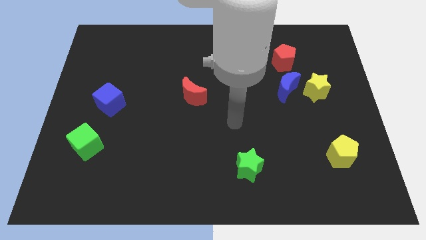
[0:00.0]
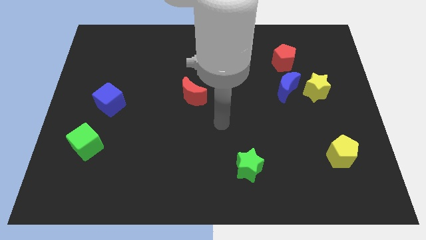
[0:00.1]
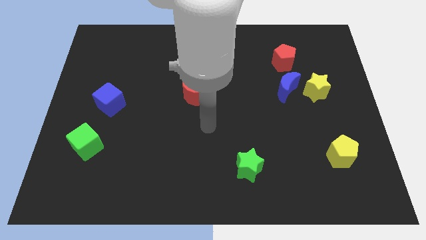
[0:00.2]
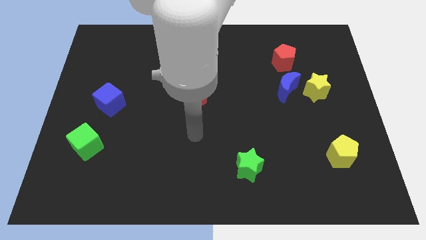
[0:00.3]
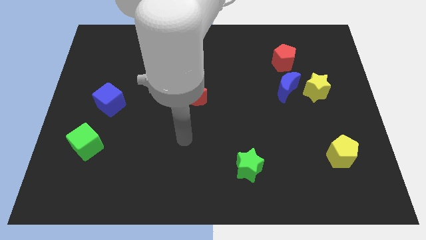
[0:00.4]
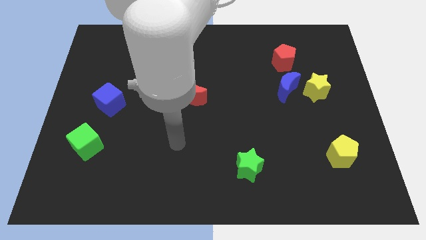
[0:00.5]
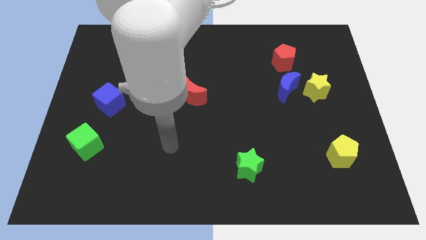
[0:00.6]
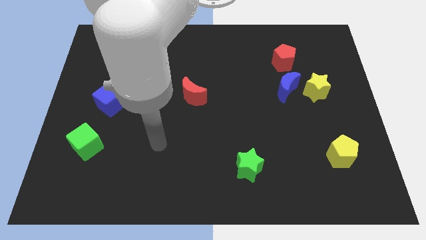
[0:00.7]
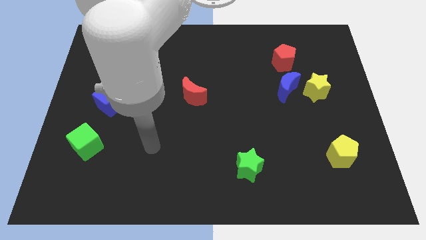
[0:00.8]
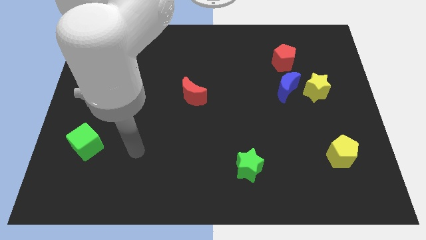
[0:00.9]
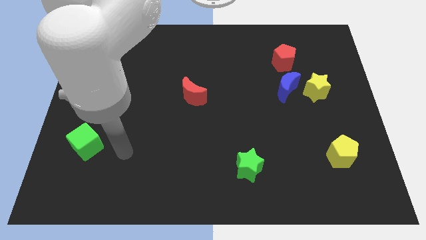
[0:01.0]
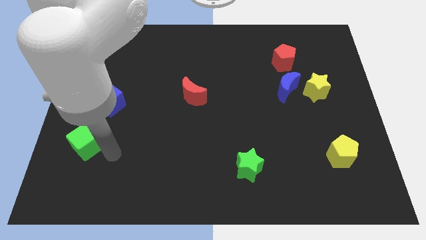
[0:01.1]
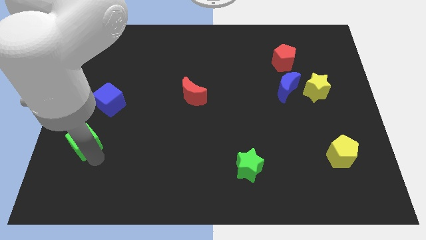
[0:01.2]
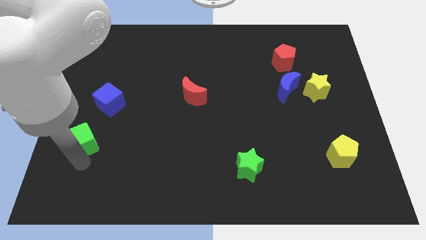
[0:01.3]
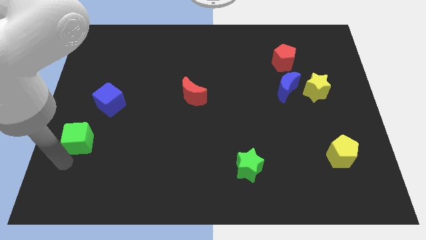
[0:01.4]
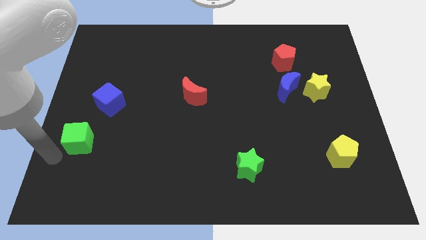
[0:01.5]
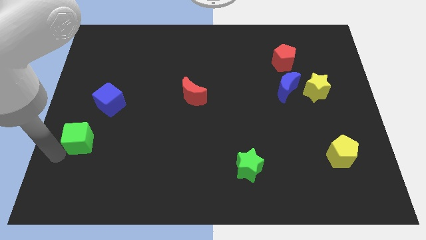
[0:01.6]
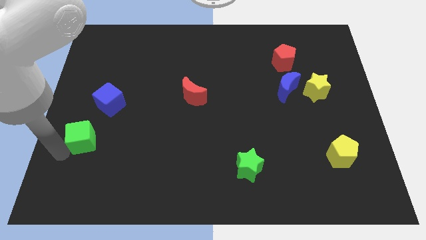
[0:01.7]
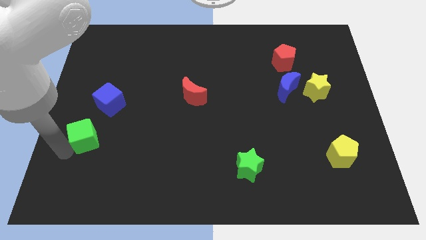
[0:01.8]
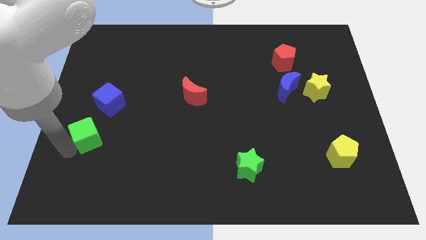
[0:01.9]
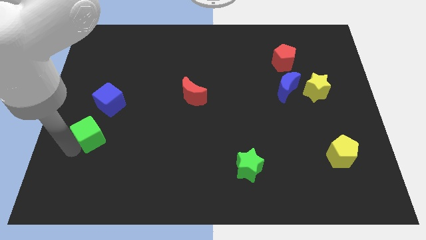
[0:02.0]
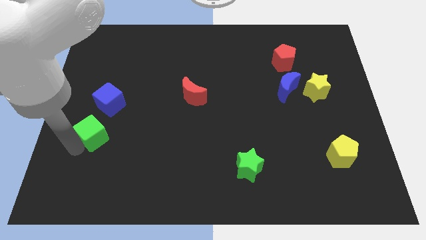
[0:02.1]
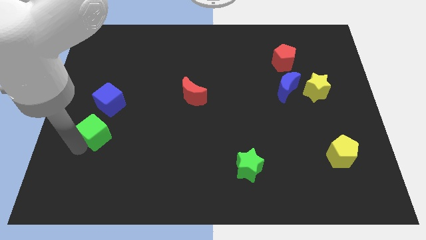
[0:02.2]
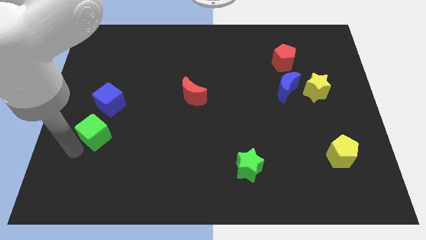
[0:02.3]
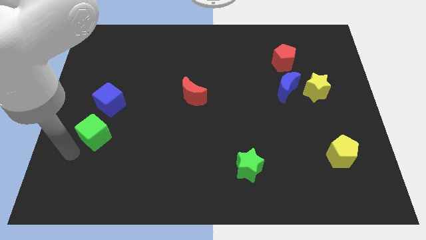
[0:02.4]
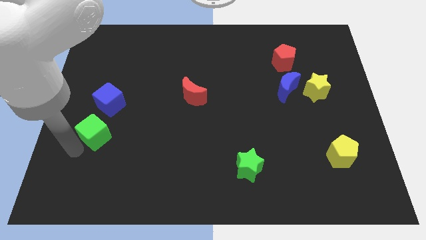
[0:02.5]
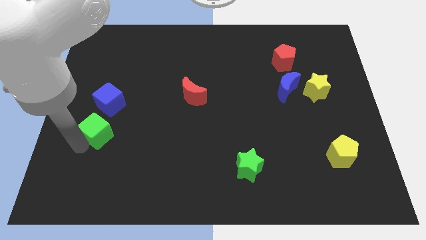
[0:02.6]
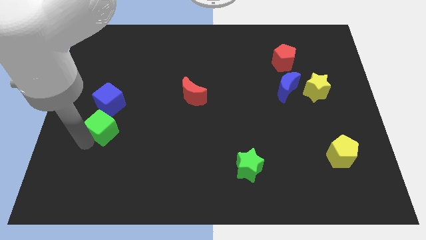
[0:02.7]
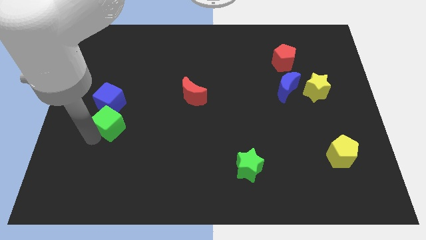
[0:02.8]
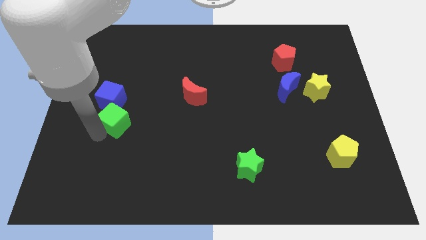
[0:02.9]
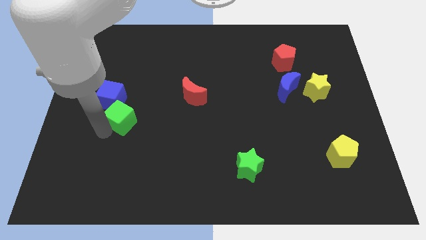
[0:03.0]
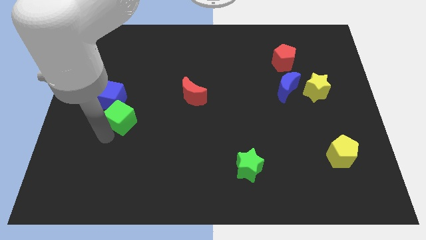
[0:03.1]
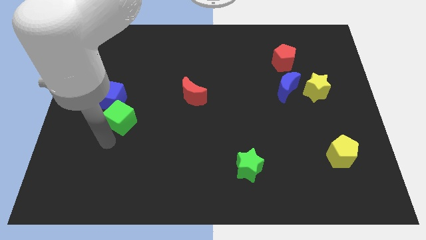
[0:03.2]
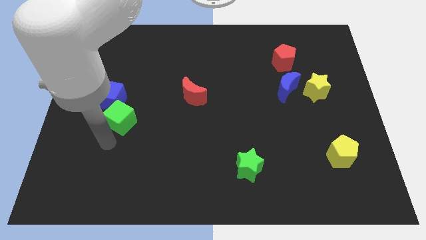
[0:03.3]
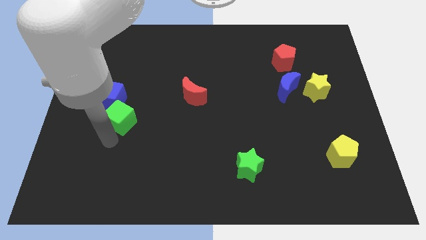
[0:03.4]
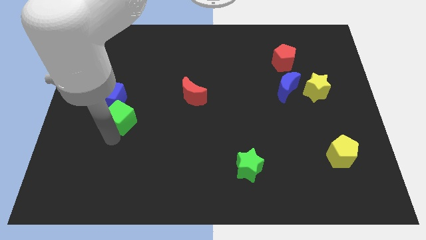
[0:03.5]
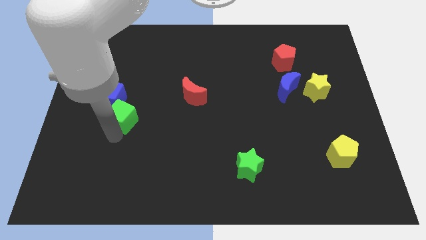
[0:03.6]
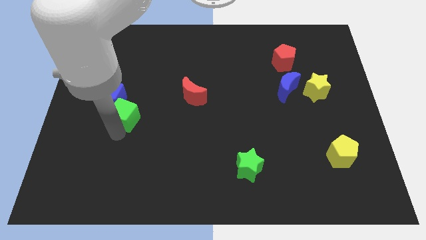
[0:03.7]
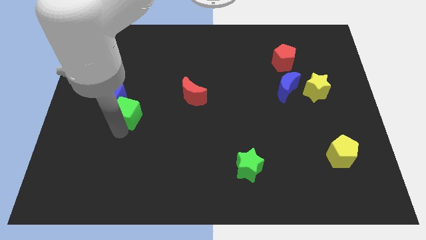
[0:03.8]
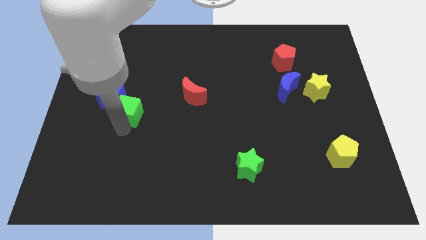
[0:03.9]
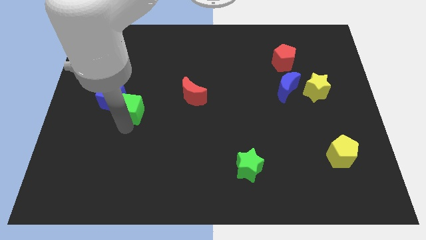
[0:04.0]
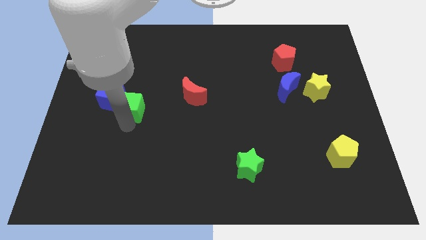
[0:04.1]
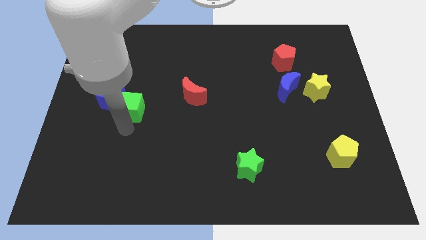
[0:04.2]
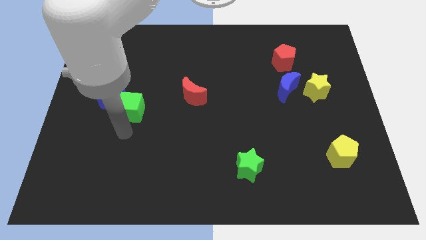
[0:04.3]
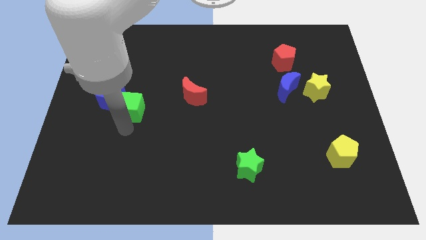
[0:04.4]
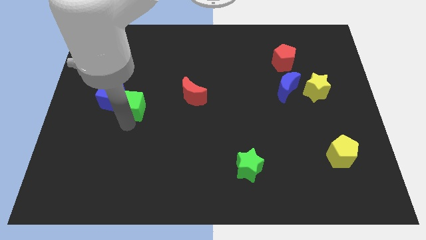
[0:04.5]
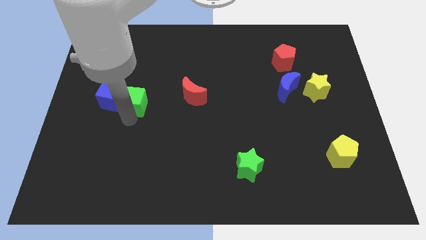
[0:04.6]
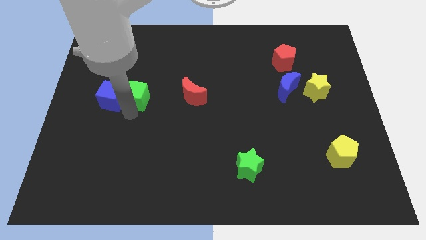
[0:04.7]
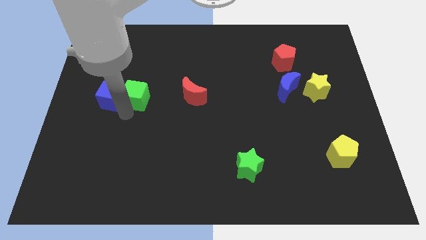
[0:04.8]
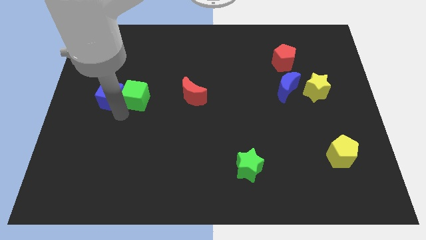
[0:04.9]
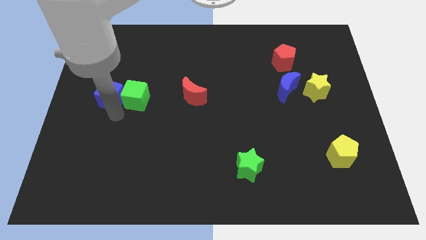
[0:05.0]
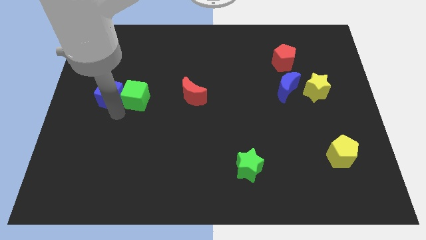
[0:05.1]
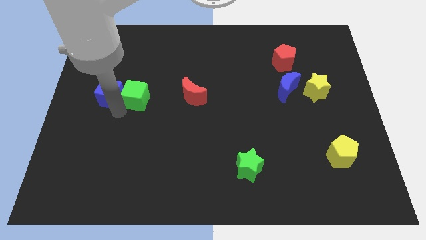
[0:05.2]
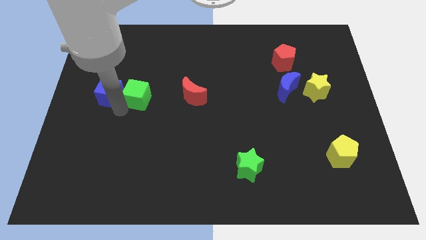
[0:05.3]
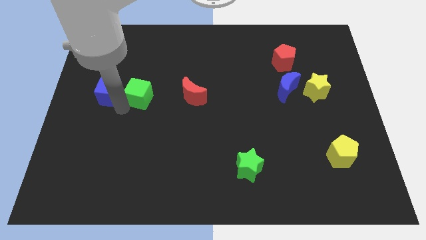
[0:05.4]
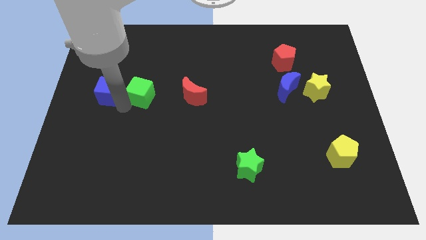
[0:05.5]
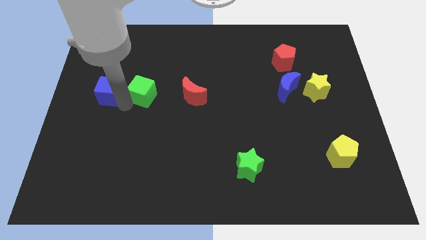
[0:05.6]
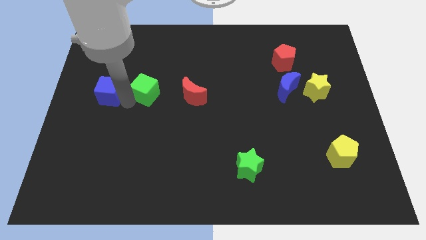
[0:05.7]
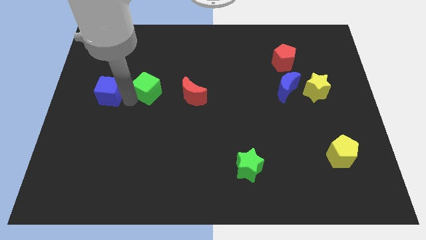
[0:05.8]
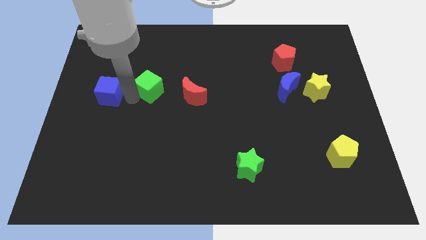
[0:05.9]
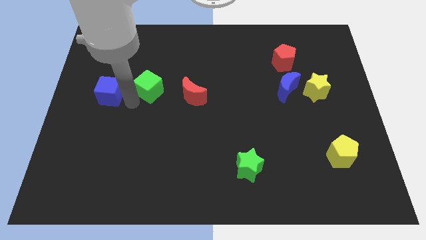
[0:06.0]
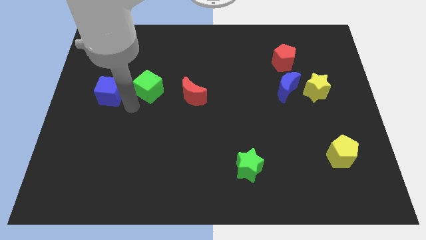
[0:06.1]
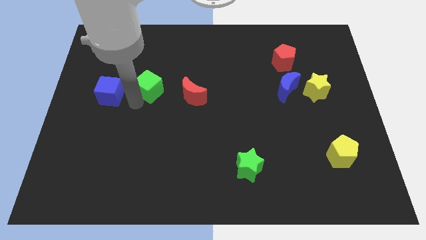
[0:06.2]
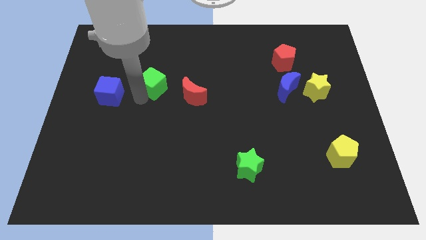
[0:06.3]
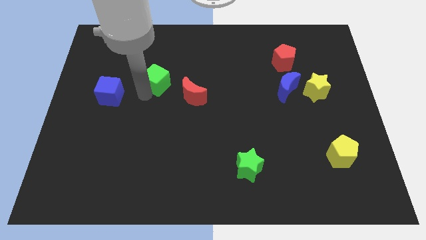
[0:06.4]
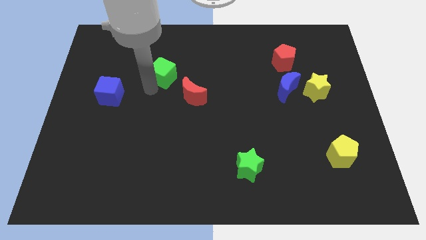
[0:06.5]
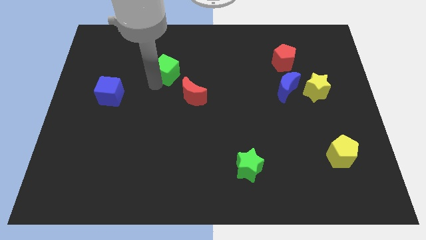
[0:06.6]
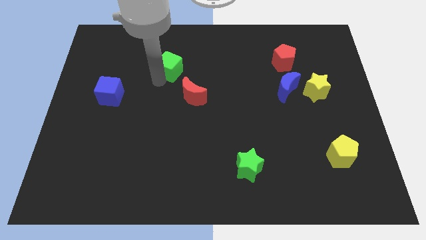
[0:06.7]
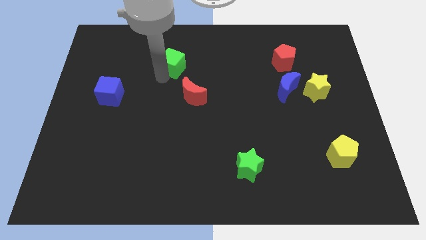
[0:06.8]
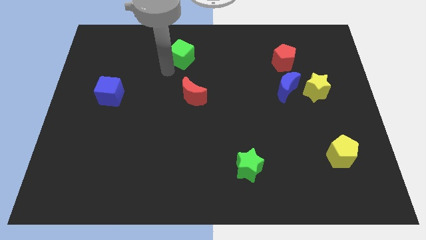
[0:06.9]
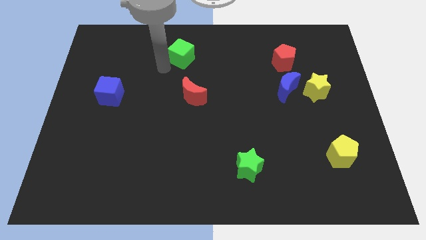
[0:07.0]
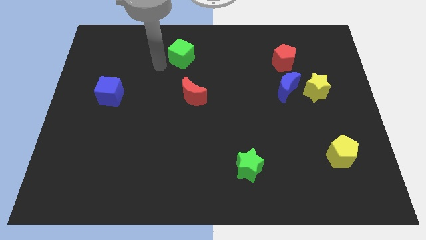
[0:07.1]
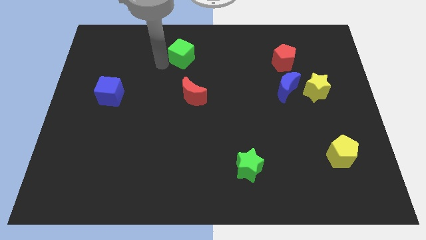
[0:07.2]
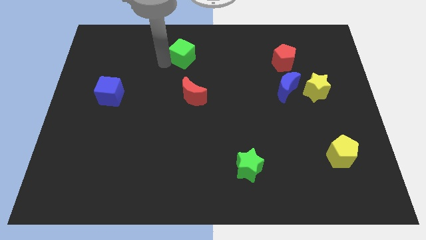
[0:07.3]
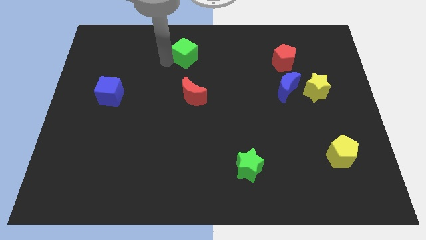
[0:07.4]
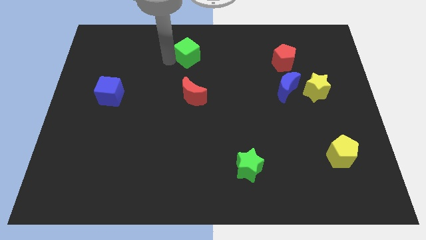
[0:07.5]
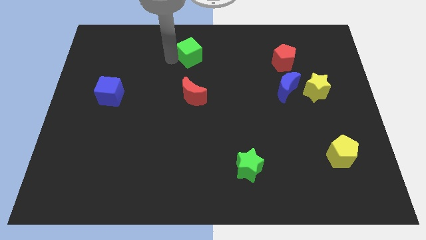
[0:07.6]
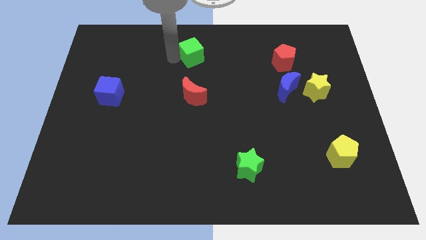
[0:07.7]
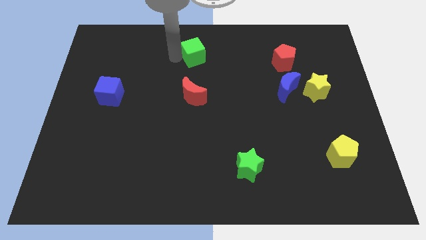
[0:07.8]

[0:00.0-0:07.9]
put the green cube to the top side
